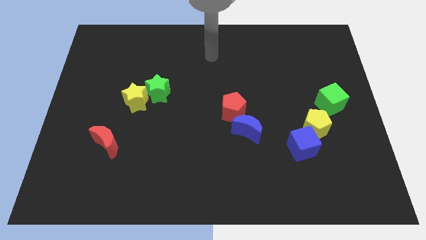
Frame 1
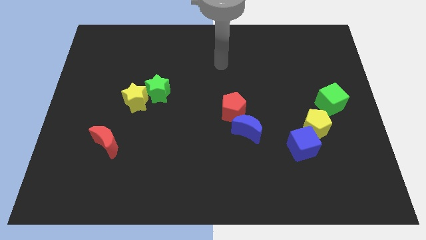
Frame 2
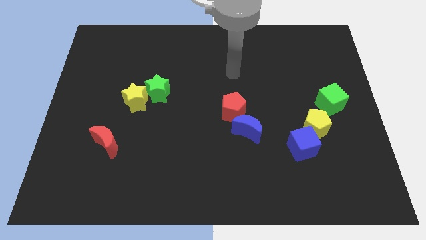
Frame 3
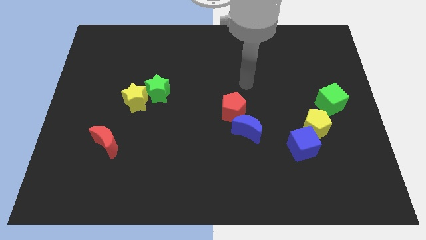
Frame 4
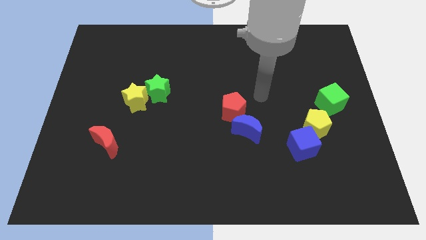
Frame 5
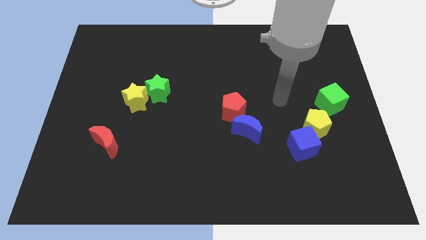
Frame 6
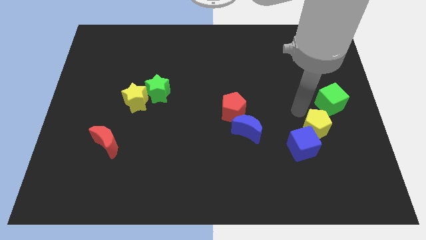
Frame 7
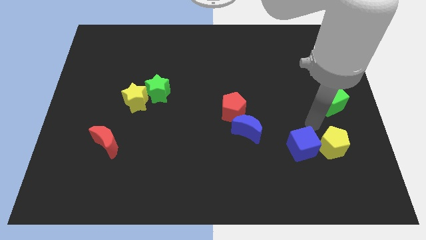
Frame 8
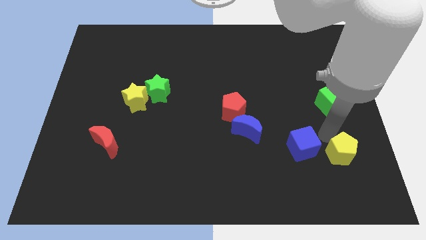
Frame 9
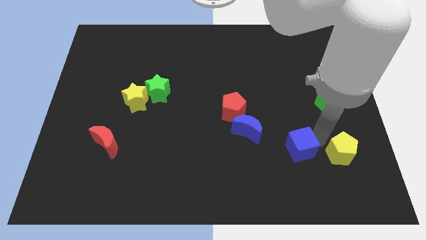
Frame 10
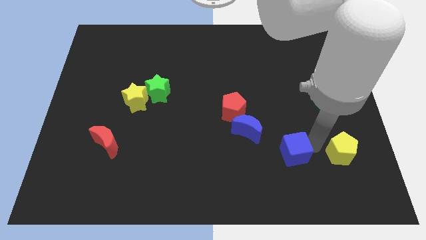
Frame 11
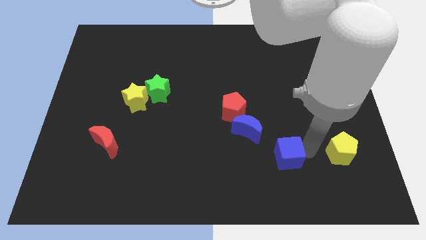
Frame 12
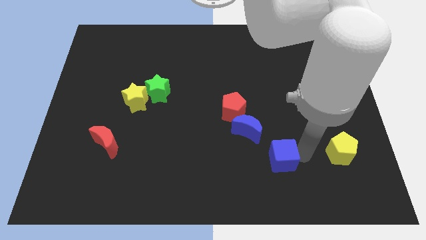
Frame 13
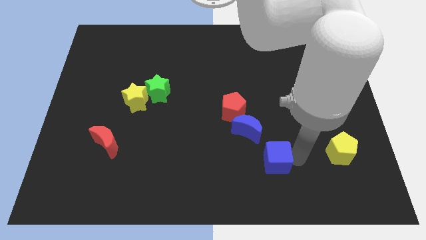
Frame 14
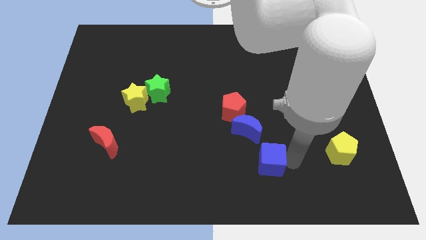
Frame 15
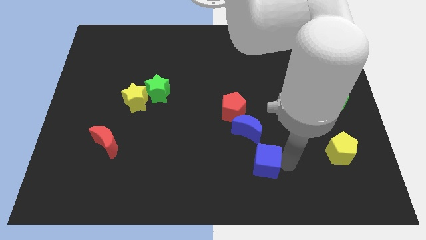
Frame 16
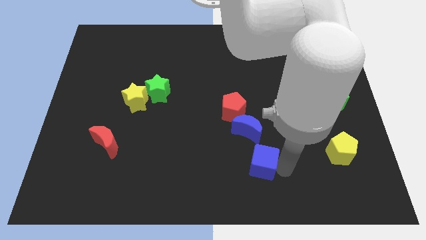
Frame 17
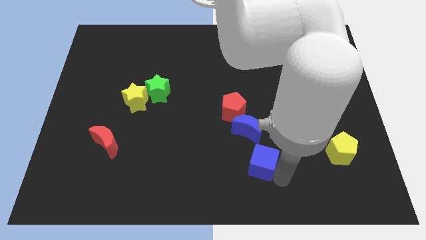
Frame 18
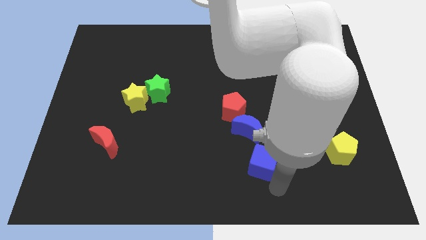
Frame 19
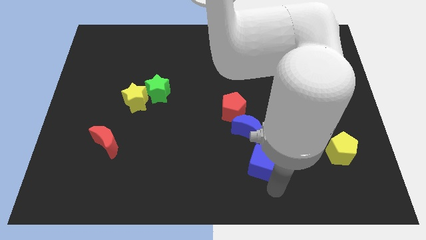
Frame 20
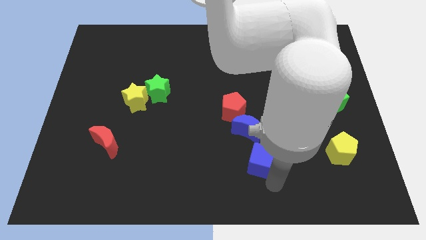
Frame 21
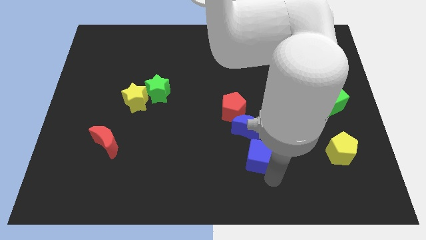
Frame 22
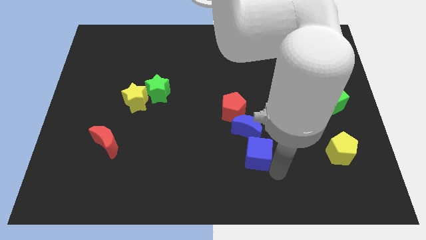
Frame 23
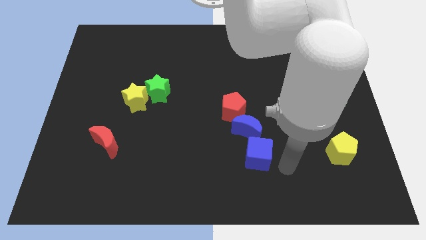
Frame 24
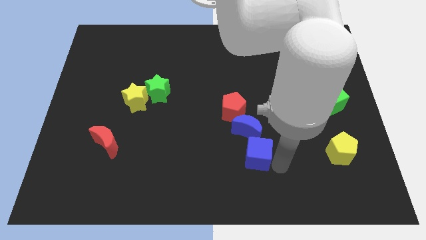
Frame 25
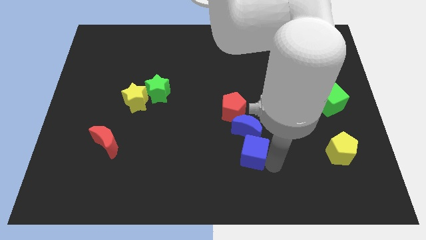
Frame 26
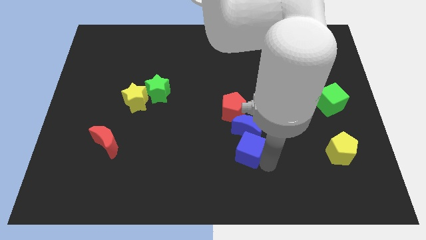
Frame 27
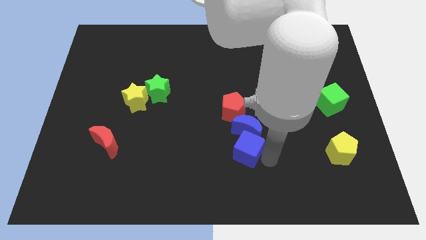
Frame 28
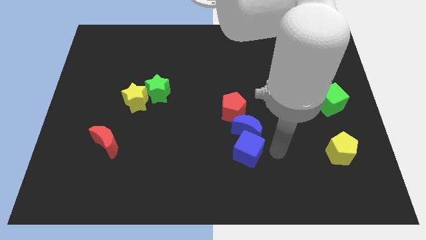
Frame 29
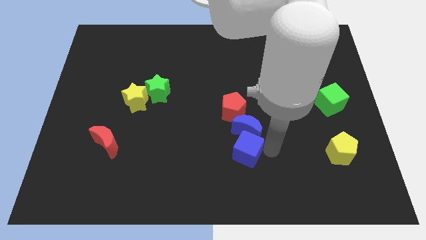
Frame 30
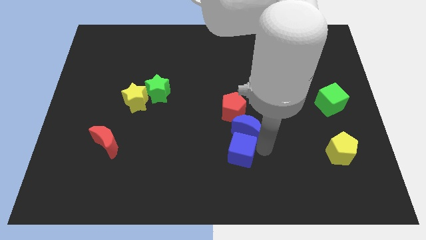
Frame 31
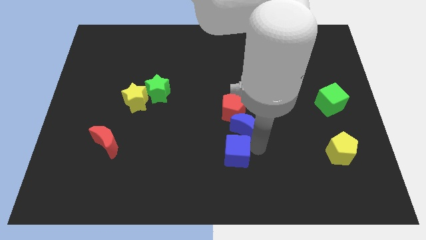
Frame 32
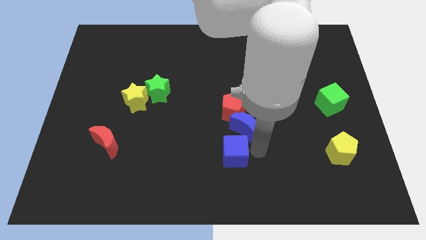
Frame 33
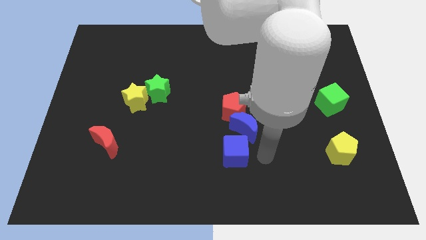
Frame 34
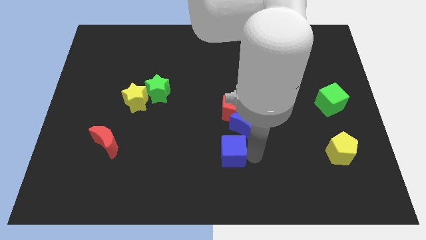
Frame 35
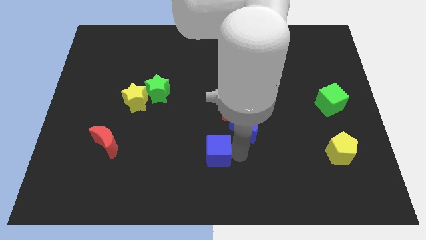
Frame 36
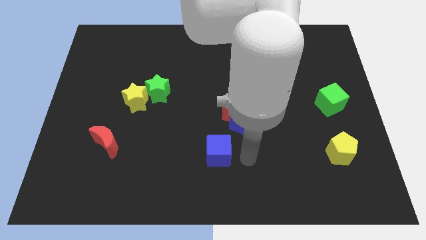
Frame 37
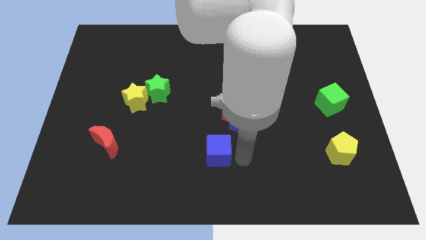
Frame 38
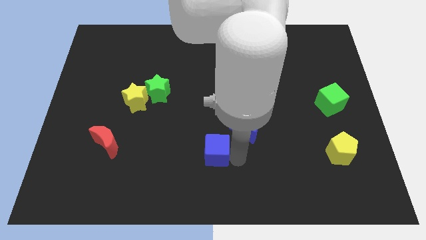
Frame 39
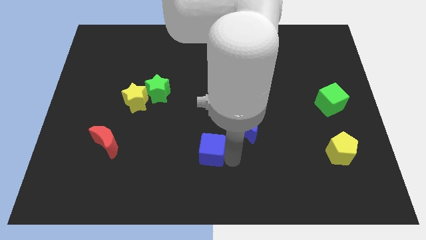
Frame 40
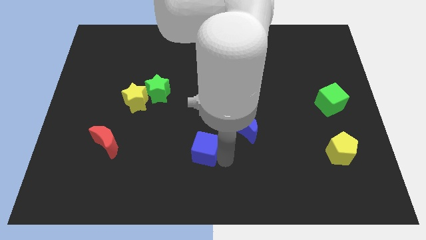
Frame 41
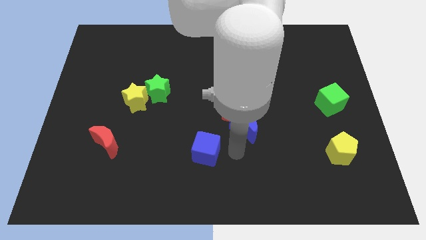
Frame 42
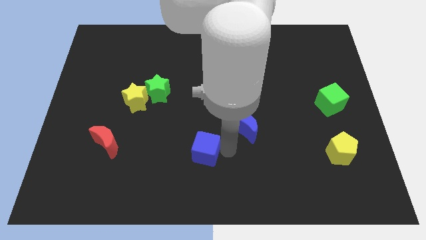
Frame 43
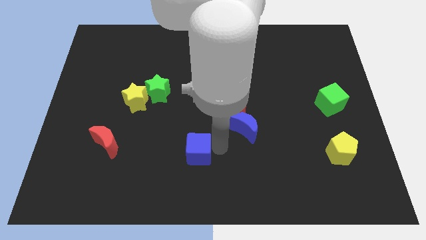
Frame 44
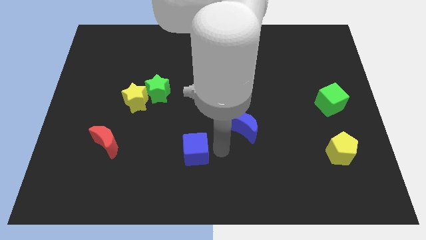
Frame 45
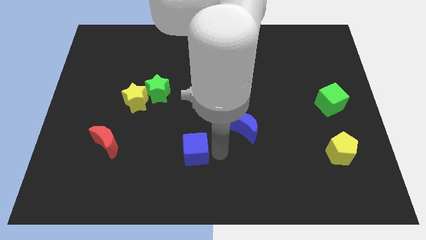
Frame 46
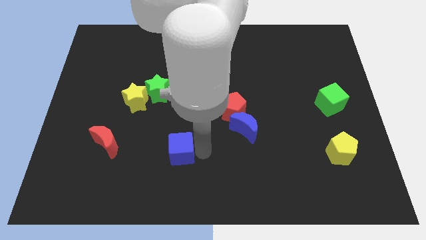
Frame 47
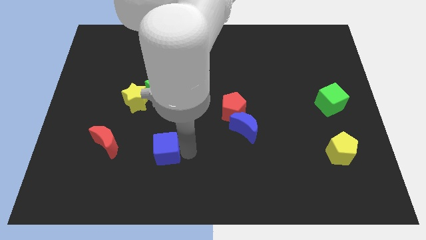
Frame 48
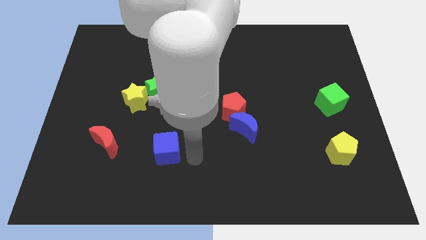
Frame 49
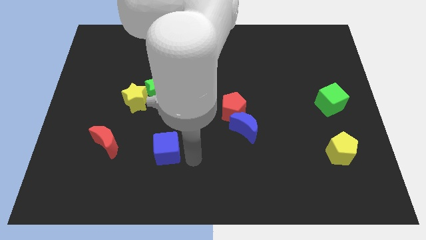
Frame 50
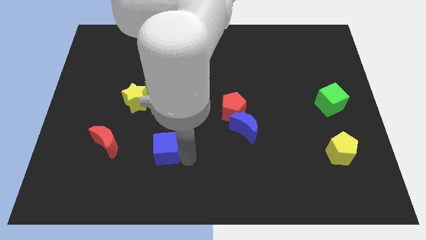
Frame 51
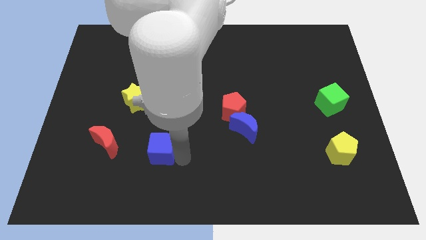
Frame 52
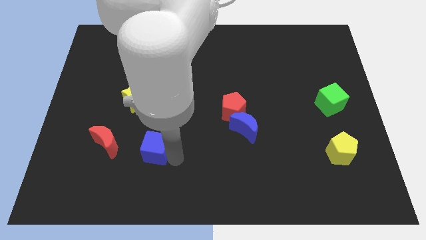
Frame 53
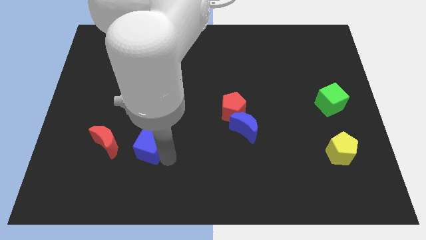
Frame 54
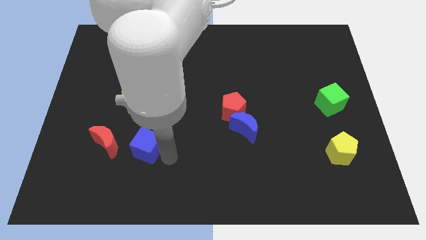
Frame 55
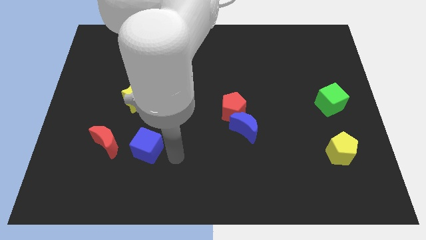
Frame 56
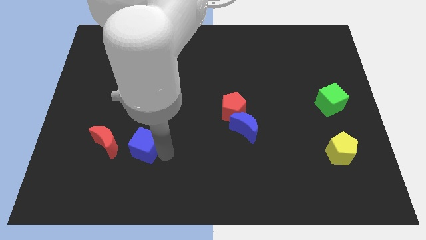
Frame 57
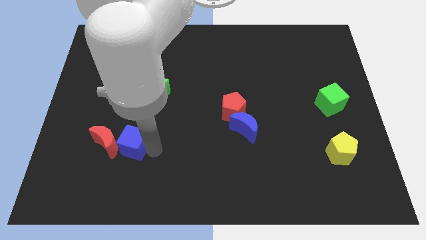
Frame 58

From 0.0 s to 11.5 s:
move the blue cube towards the red moon
